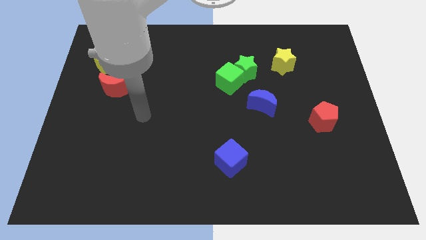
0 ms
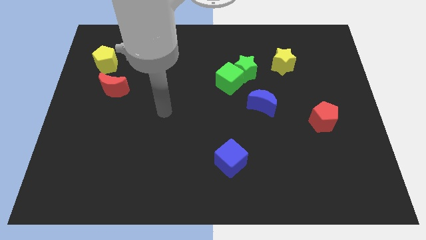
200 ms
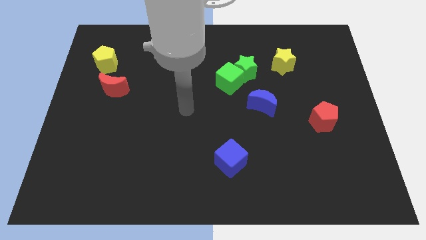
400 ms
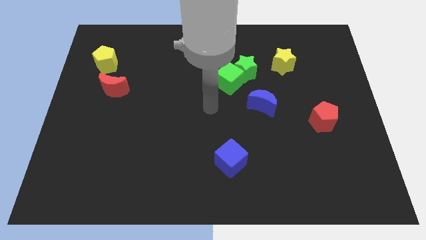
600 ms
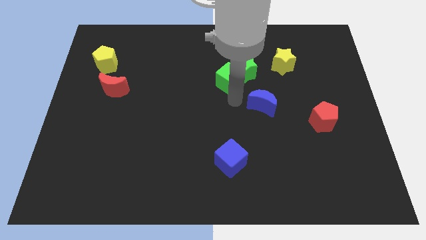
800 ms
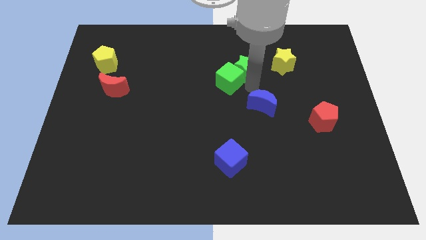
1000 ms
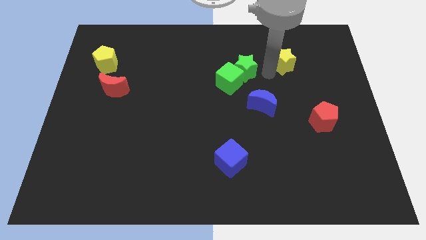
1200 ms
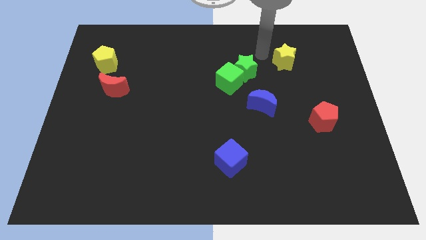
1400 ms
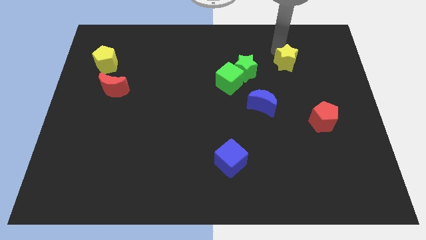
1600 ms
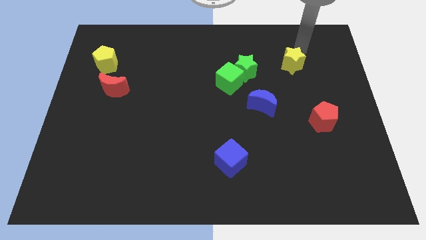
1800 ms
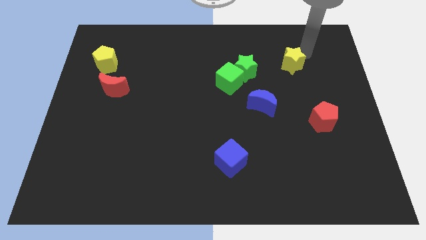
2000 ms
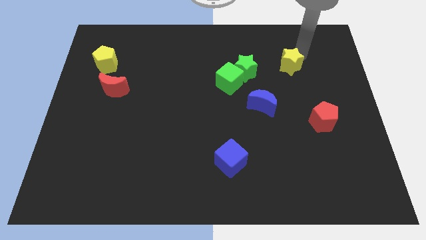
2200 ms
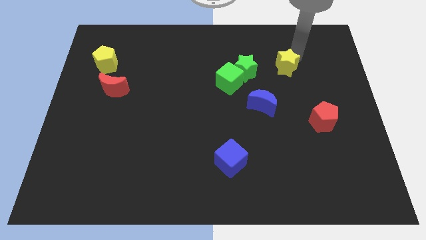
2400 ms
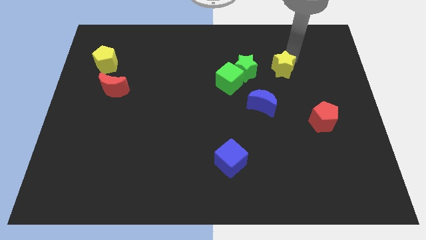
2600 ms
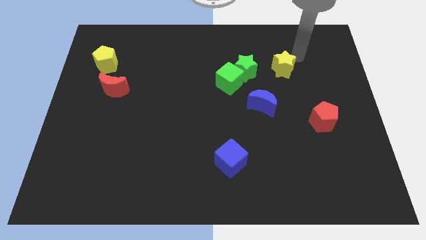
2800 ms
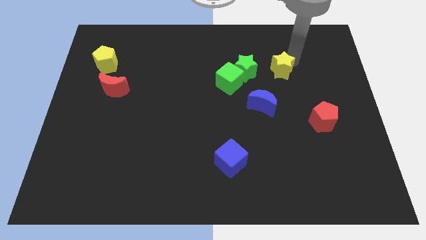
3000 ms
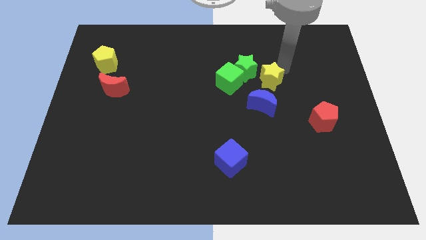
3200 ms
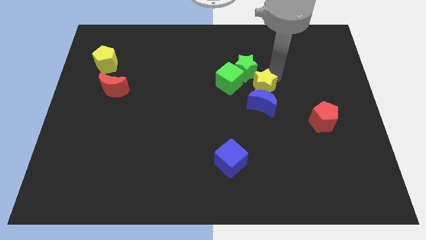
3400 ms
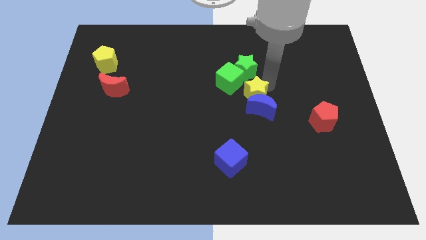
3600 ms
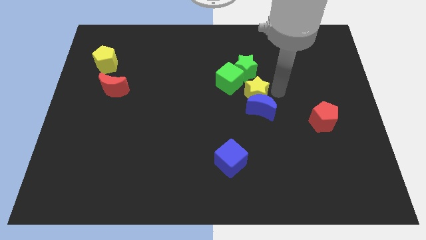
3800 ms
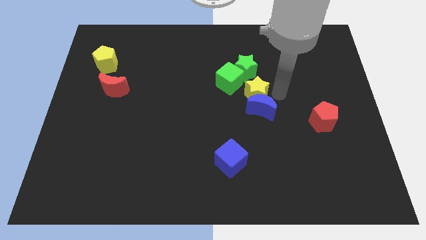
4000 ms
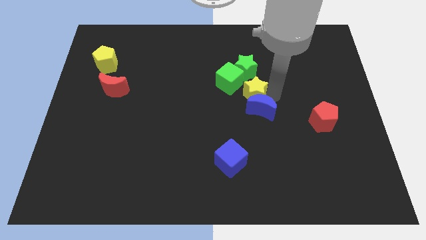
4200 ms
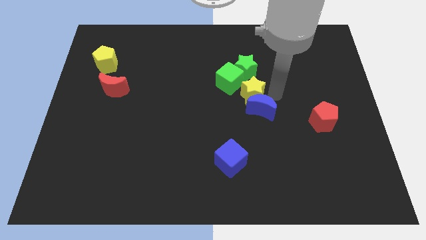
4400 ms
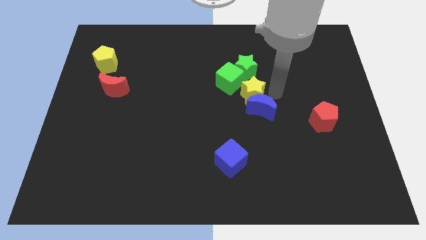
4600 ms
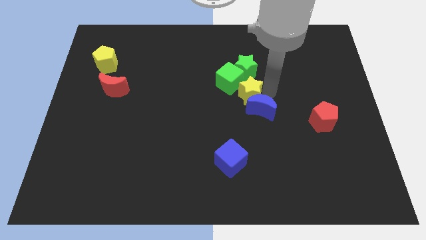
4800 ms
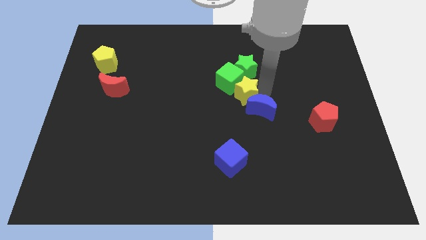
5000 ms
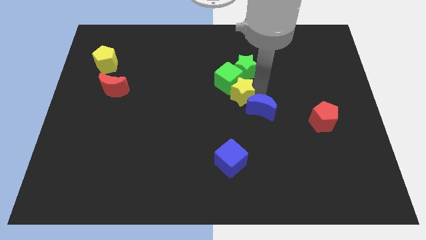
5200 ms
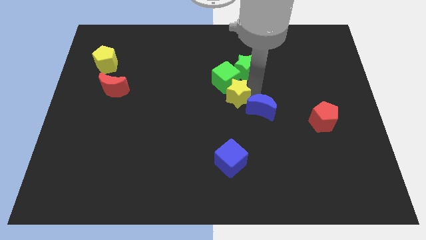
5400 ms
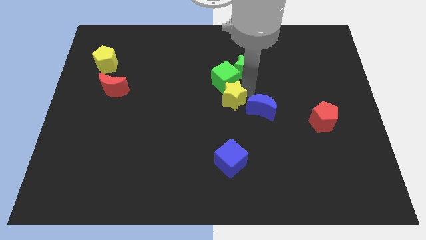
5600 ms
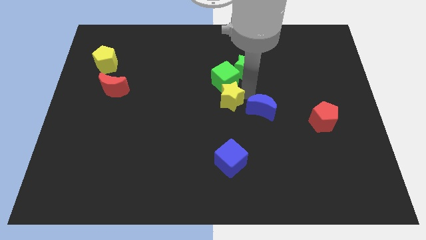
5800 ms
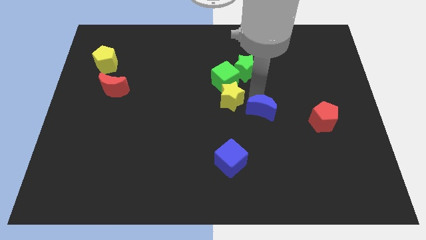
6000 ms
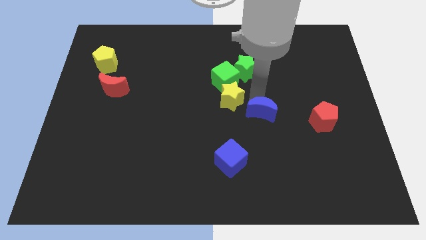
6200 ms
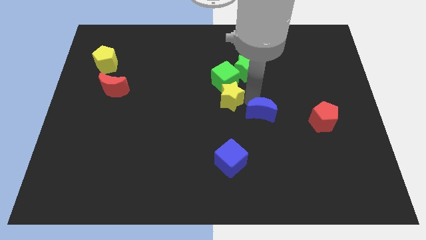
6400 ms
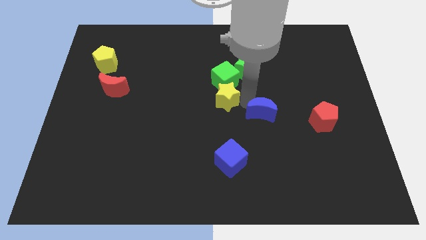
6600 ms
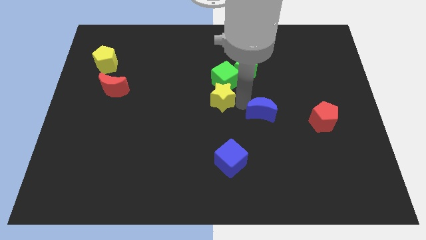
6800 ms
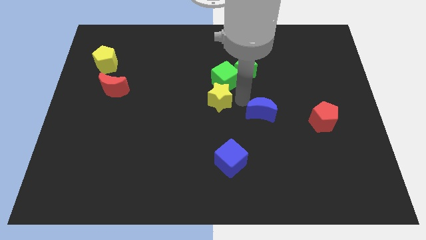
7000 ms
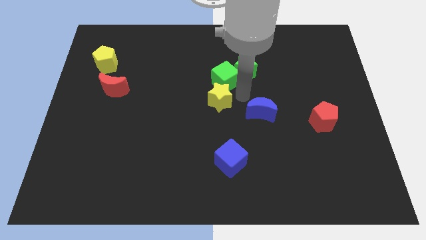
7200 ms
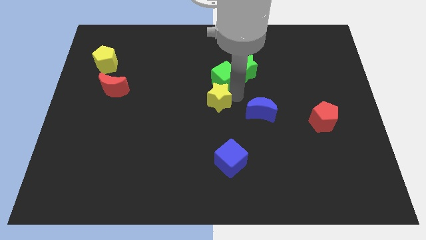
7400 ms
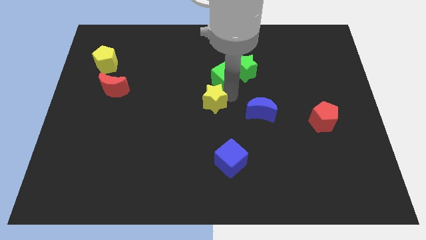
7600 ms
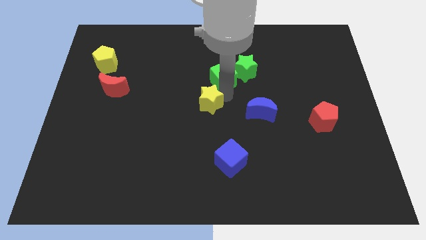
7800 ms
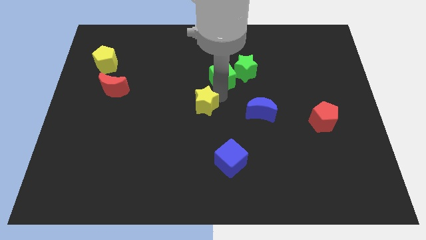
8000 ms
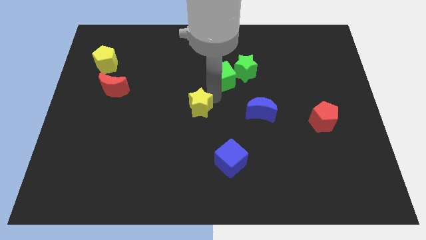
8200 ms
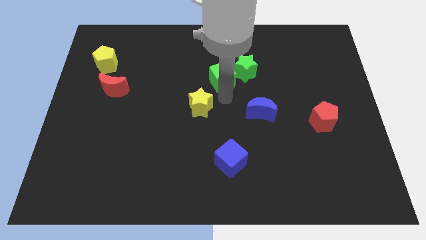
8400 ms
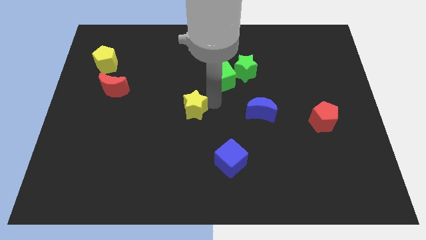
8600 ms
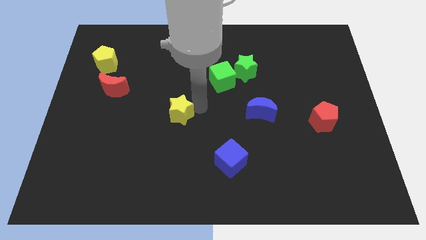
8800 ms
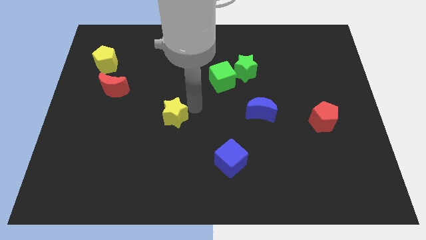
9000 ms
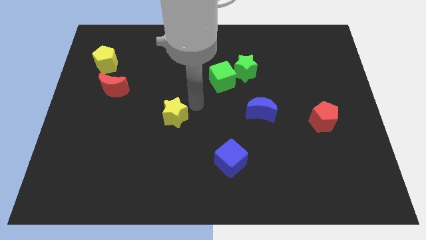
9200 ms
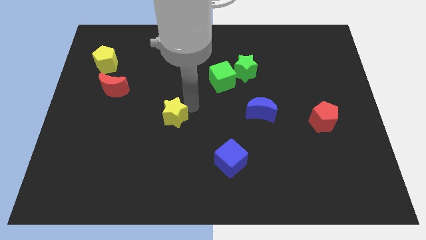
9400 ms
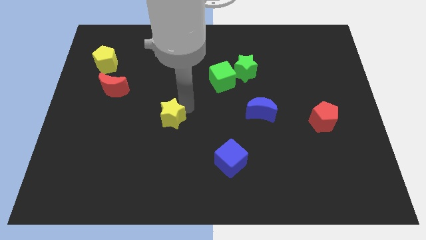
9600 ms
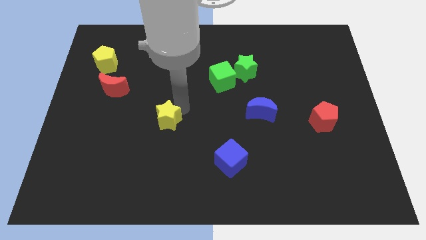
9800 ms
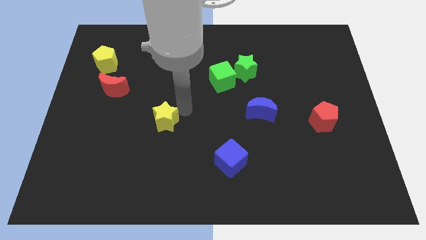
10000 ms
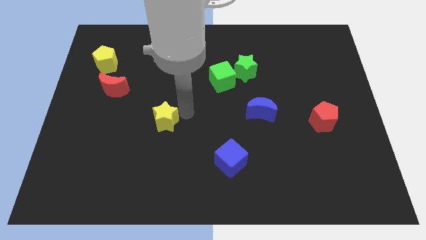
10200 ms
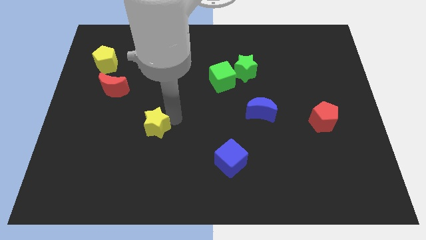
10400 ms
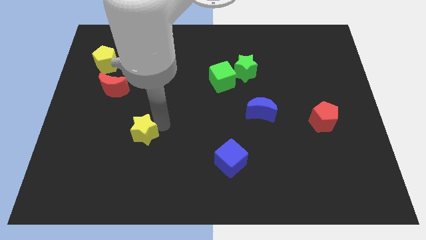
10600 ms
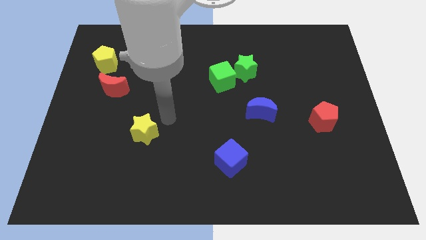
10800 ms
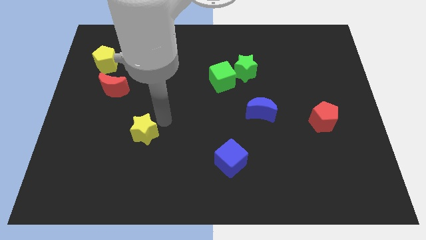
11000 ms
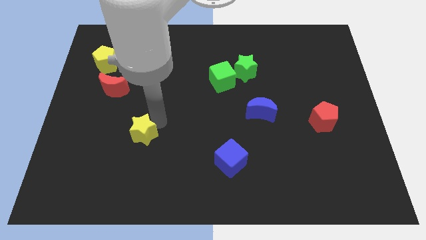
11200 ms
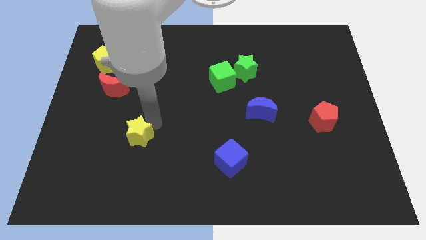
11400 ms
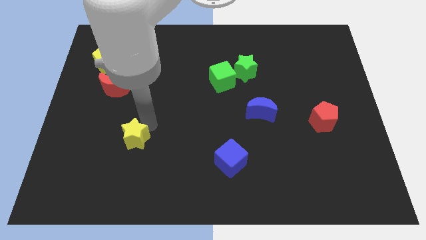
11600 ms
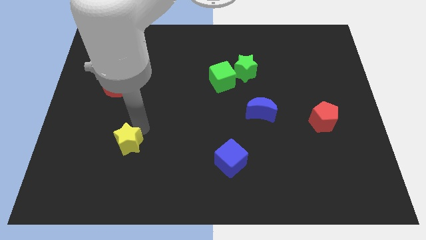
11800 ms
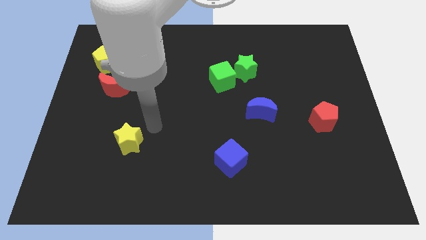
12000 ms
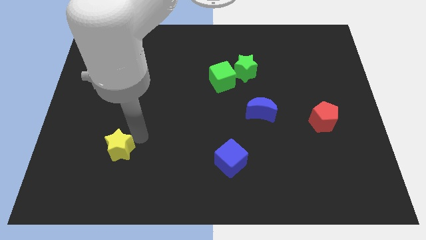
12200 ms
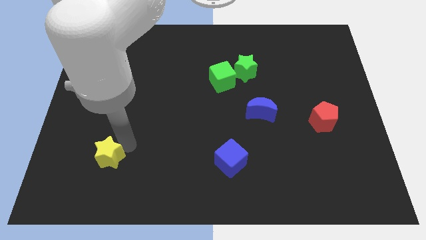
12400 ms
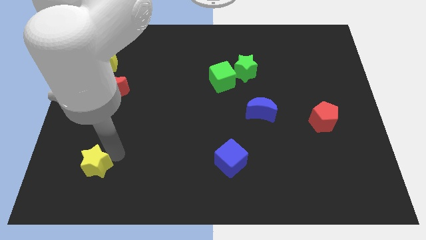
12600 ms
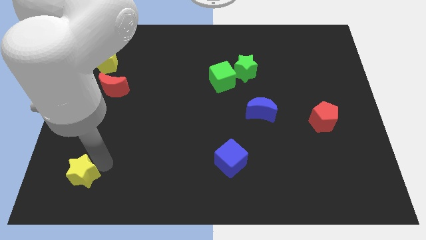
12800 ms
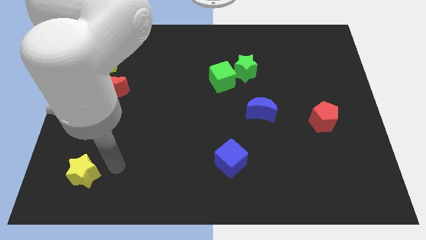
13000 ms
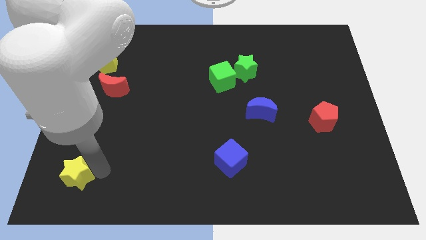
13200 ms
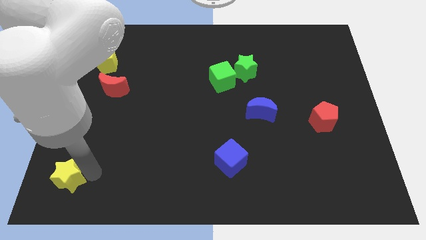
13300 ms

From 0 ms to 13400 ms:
push the yellow star to the lower left corner
